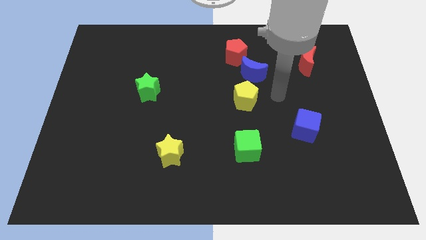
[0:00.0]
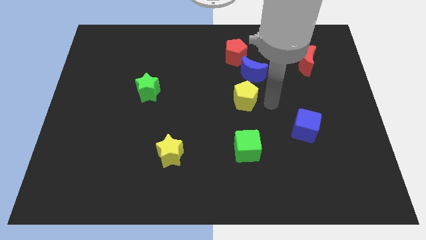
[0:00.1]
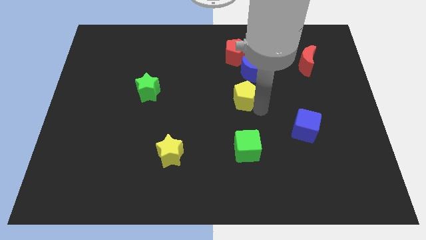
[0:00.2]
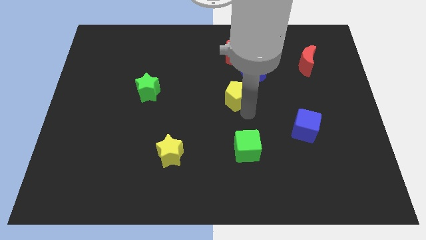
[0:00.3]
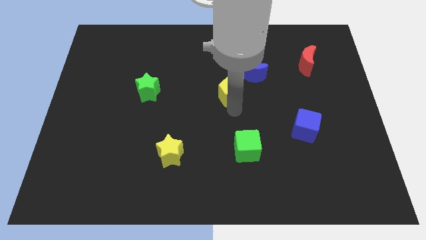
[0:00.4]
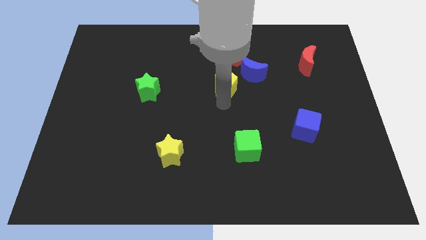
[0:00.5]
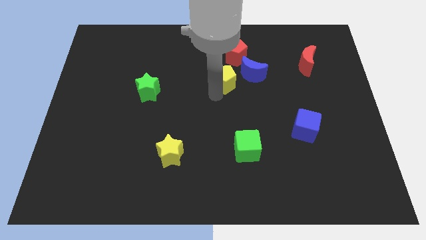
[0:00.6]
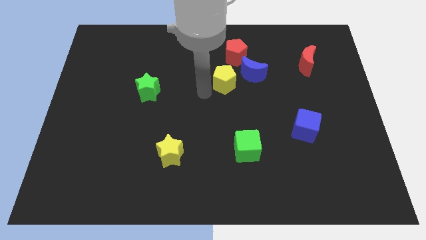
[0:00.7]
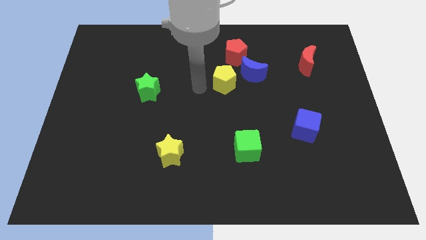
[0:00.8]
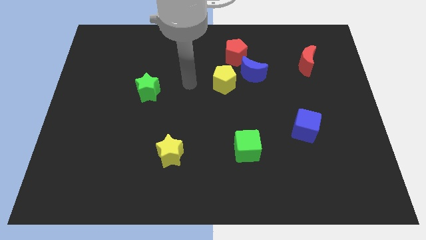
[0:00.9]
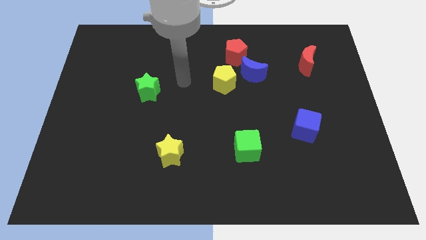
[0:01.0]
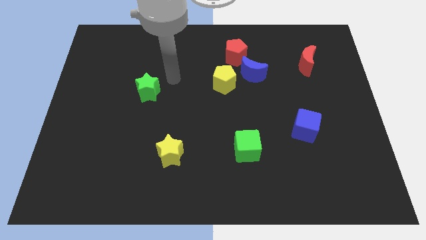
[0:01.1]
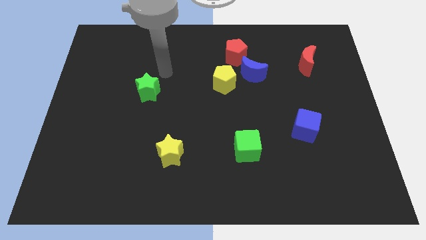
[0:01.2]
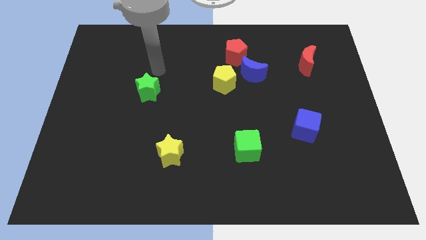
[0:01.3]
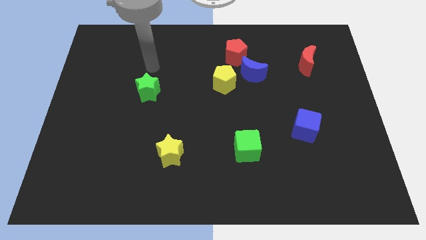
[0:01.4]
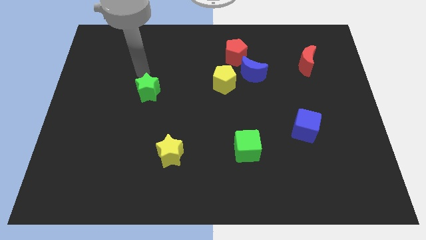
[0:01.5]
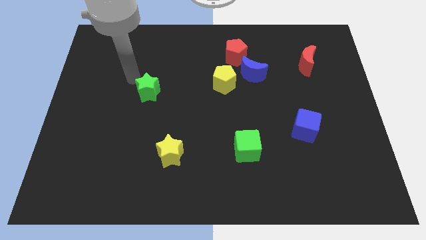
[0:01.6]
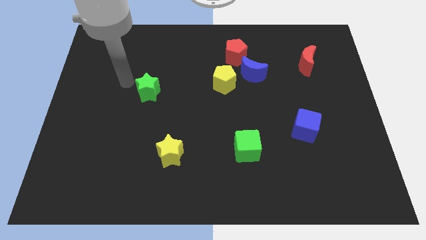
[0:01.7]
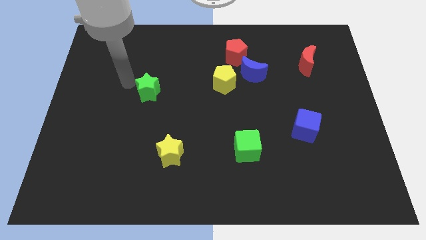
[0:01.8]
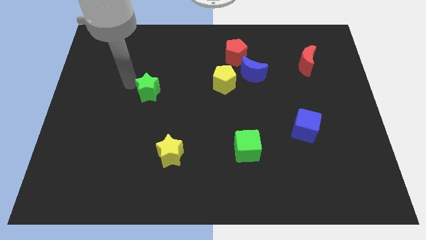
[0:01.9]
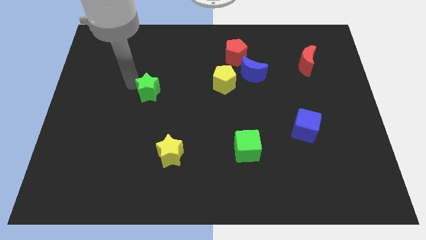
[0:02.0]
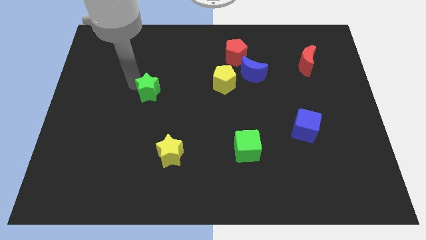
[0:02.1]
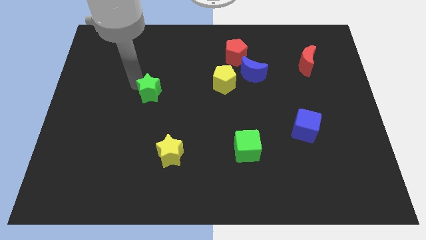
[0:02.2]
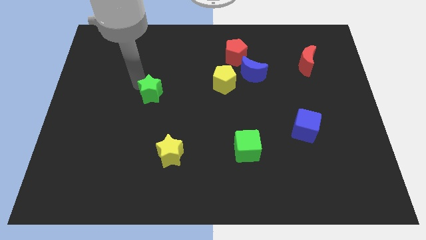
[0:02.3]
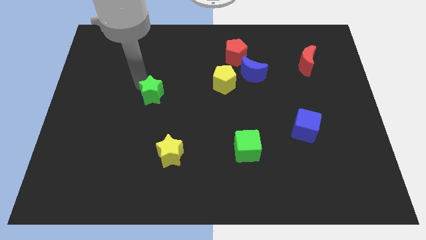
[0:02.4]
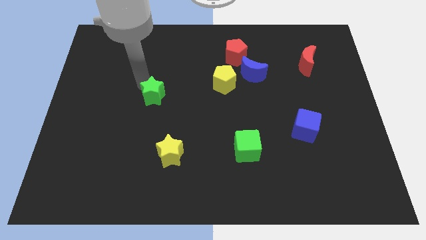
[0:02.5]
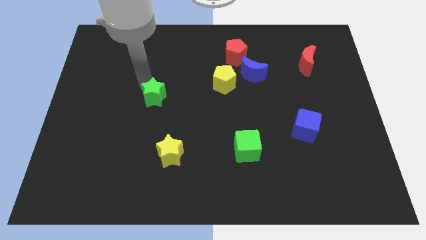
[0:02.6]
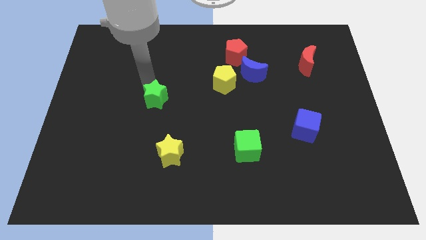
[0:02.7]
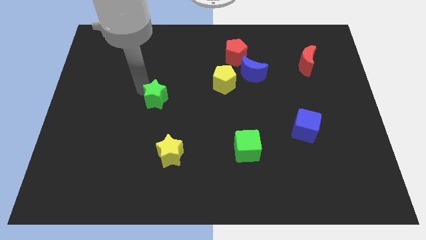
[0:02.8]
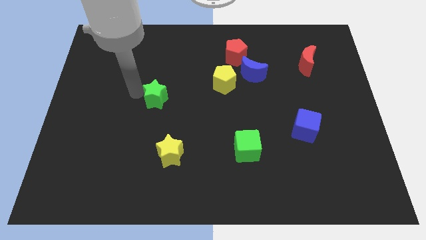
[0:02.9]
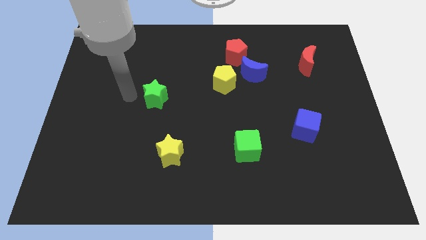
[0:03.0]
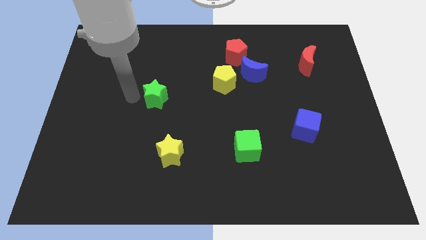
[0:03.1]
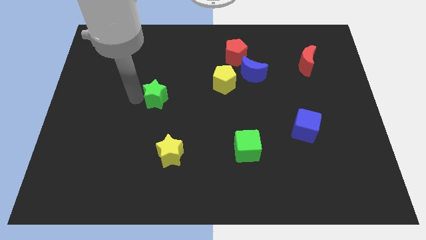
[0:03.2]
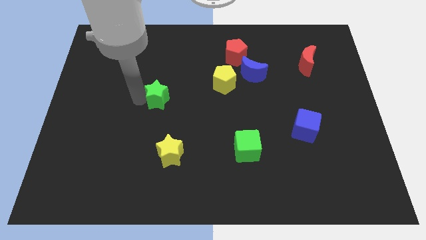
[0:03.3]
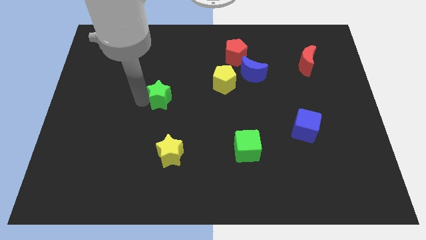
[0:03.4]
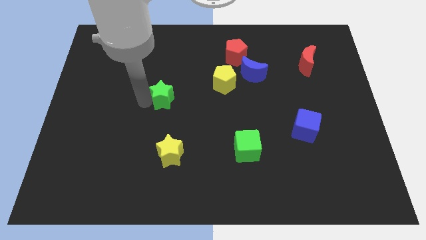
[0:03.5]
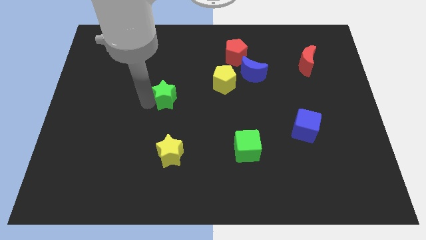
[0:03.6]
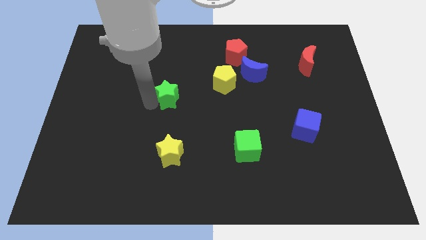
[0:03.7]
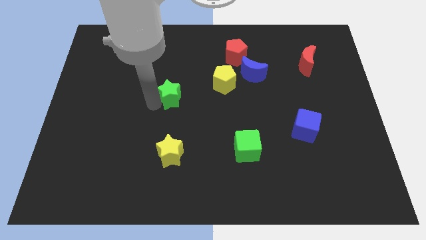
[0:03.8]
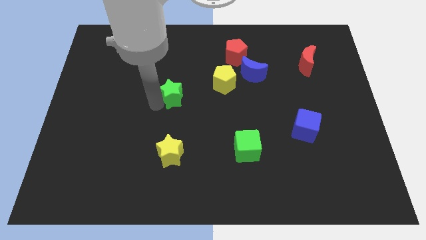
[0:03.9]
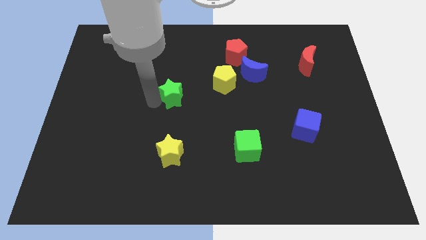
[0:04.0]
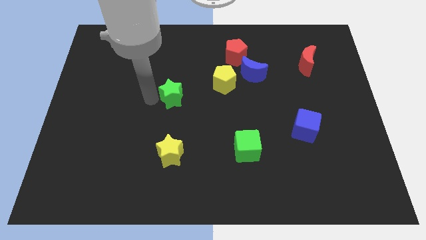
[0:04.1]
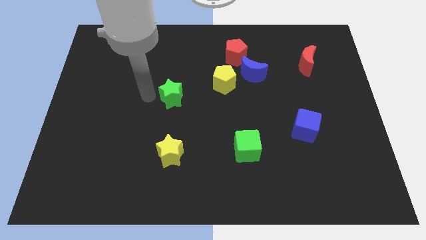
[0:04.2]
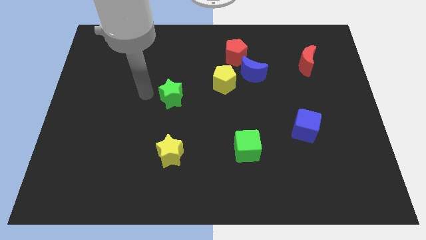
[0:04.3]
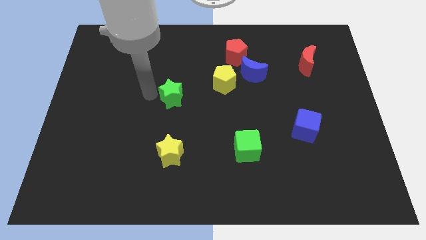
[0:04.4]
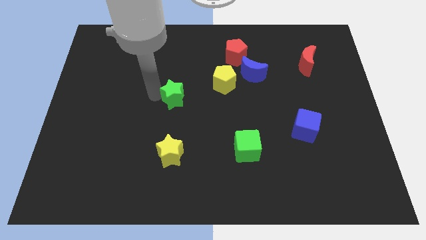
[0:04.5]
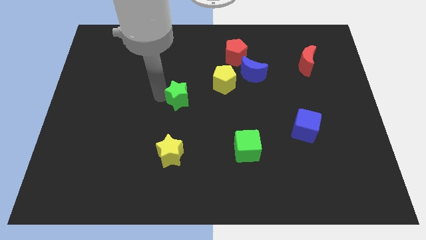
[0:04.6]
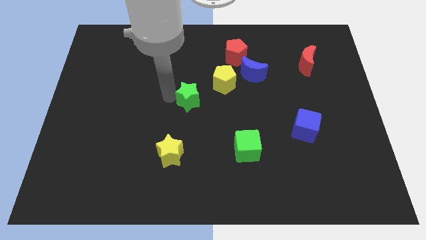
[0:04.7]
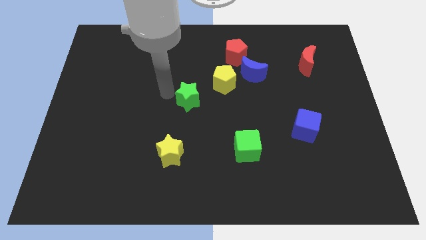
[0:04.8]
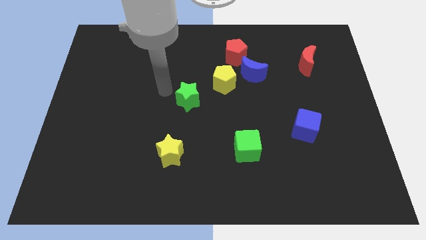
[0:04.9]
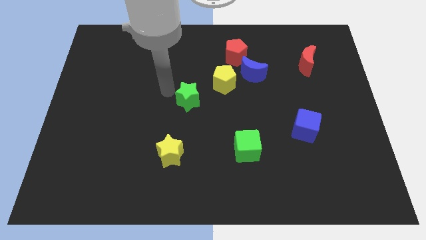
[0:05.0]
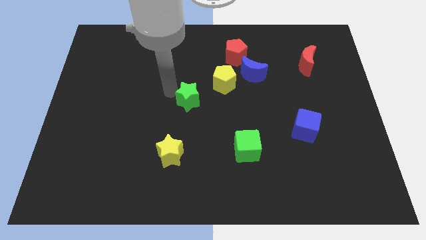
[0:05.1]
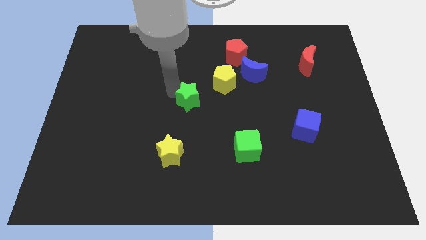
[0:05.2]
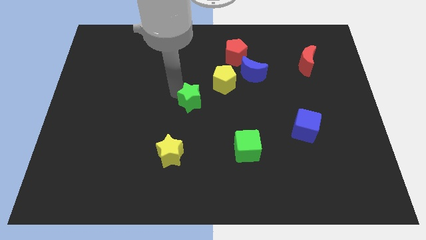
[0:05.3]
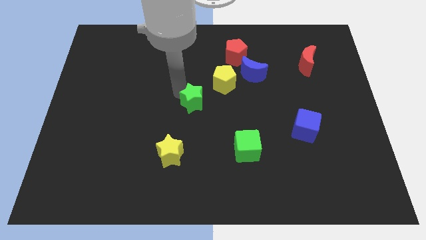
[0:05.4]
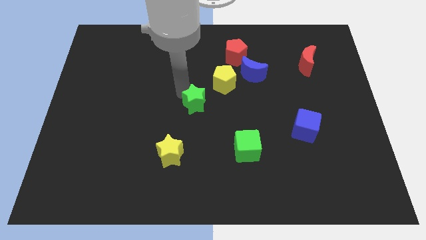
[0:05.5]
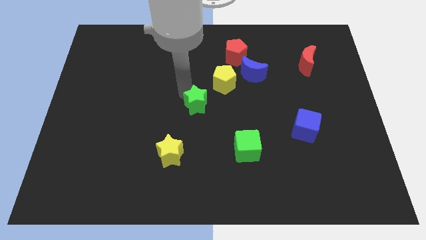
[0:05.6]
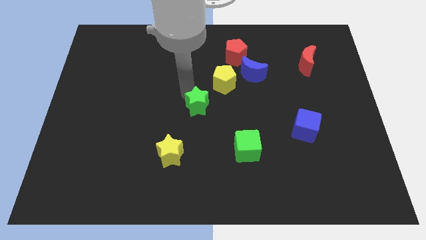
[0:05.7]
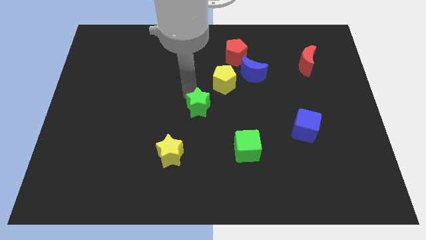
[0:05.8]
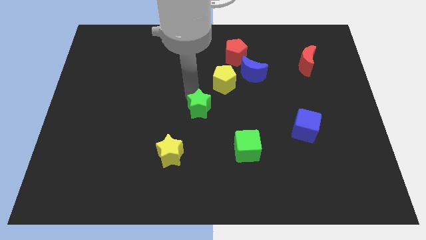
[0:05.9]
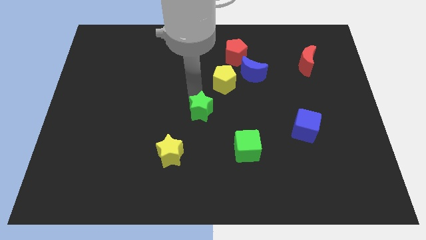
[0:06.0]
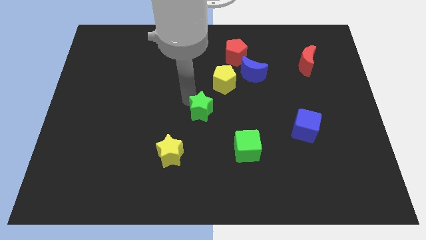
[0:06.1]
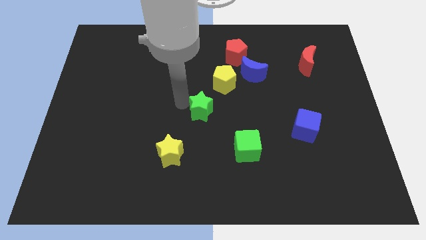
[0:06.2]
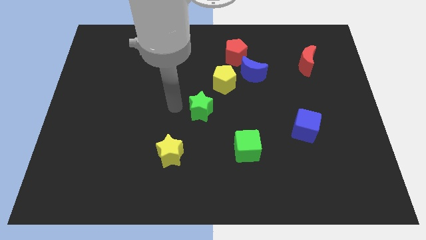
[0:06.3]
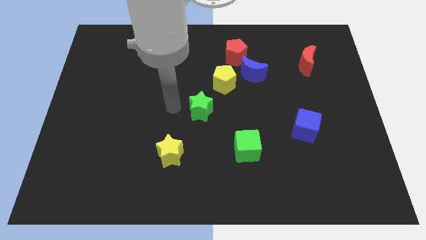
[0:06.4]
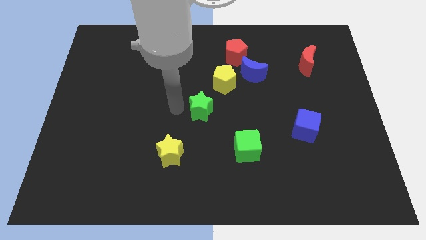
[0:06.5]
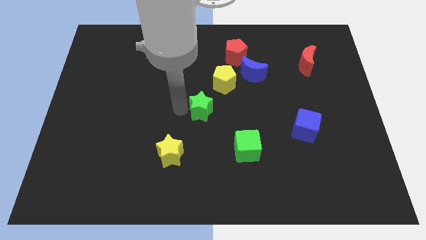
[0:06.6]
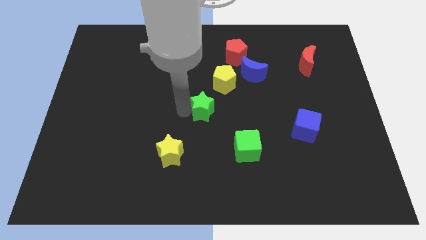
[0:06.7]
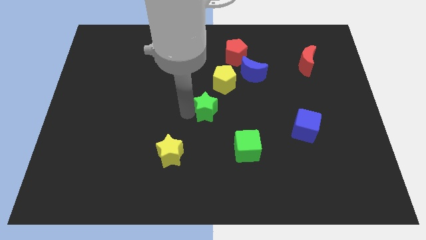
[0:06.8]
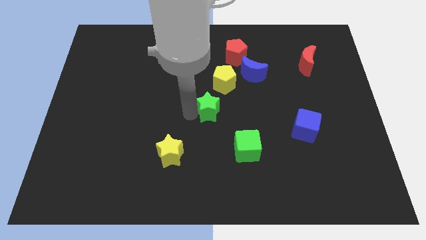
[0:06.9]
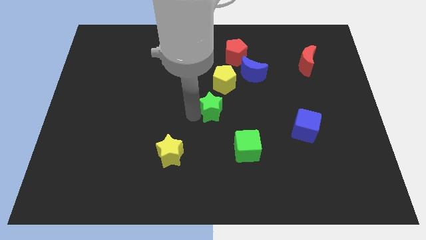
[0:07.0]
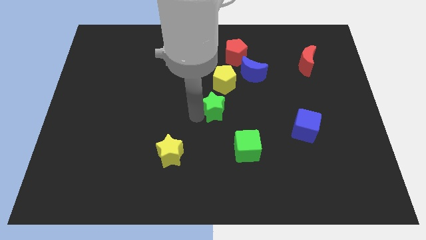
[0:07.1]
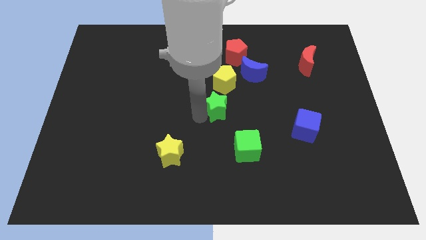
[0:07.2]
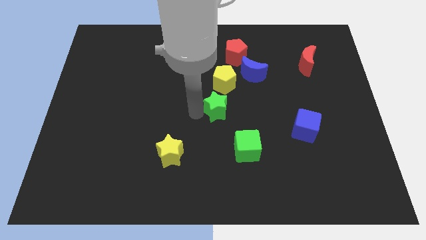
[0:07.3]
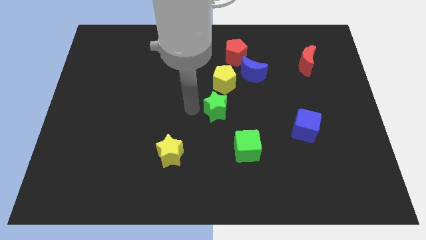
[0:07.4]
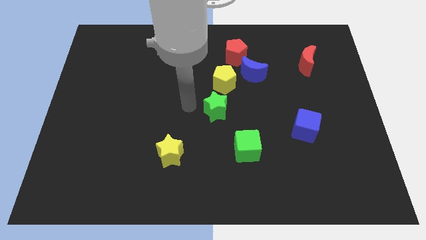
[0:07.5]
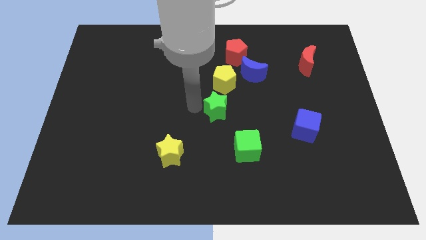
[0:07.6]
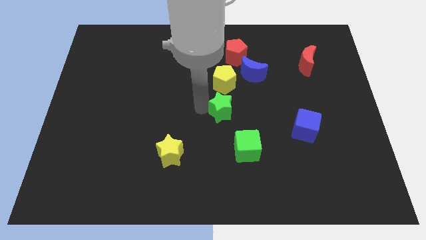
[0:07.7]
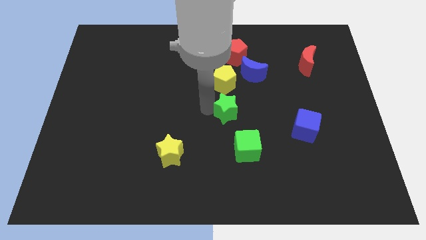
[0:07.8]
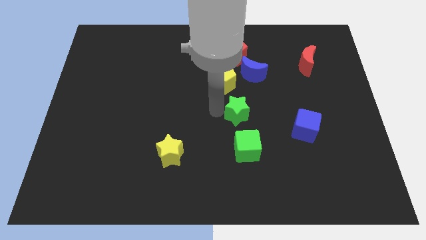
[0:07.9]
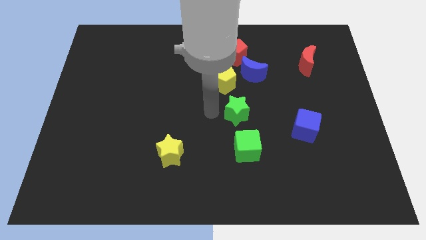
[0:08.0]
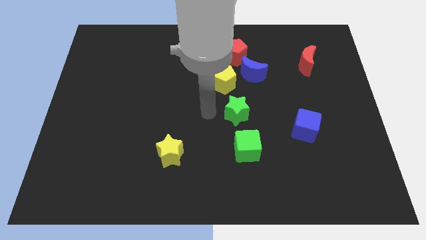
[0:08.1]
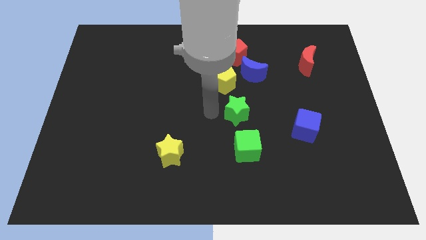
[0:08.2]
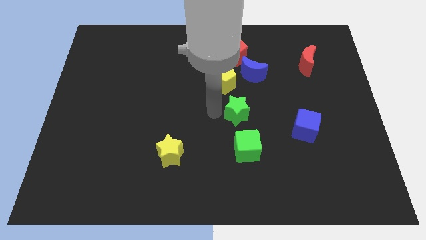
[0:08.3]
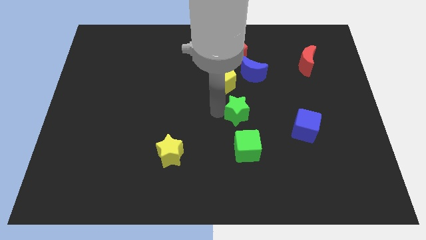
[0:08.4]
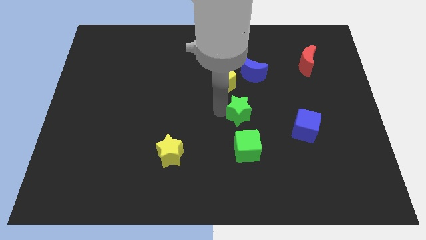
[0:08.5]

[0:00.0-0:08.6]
push the green star right
